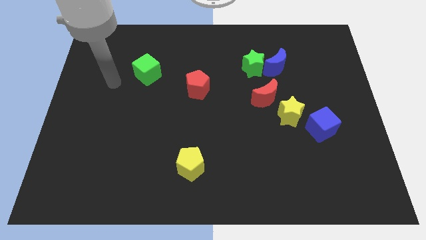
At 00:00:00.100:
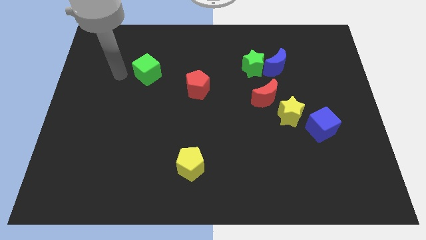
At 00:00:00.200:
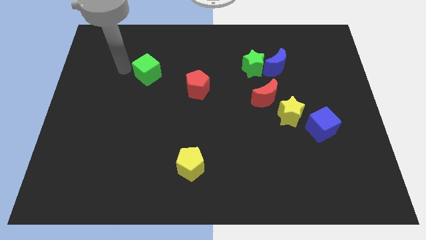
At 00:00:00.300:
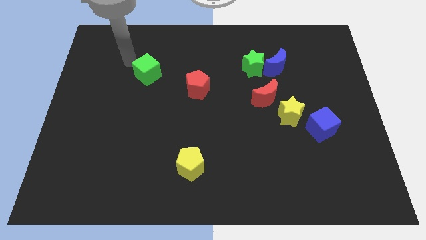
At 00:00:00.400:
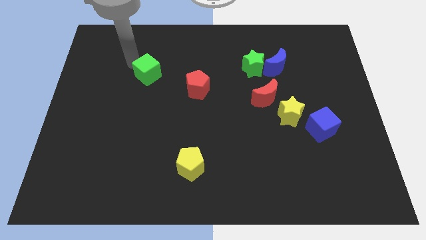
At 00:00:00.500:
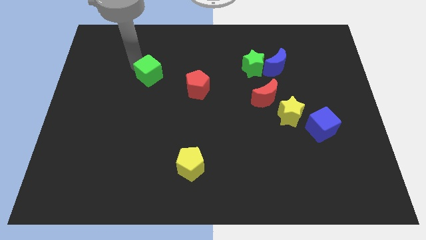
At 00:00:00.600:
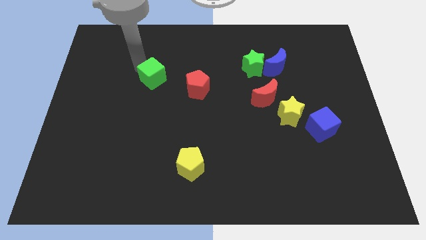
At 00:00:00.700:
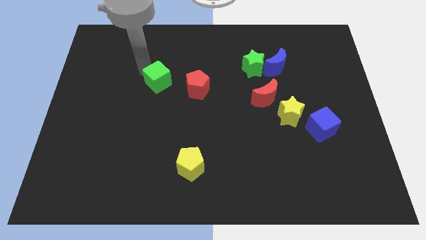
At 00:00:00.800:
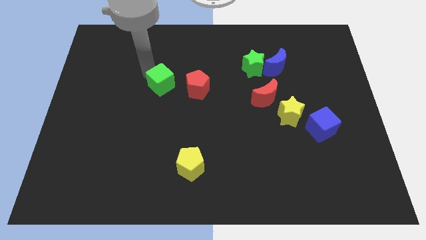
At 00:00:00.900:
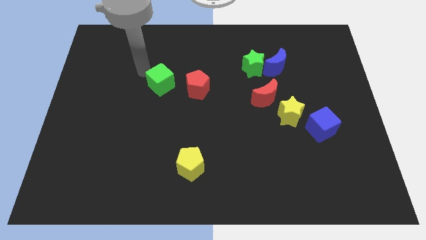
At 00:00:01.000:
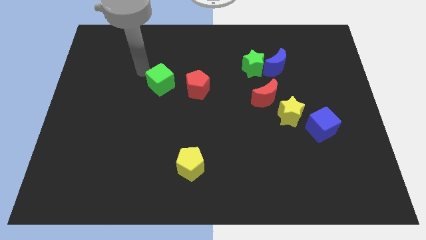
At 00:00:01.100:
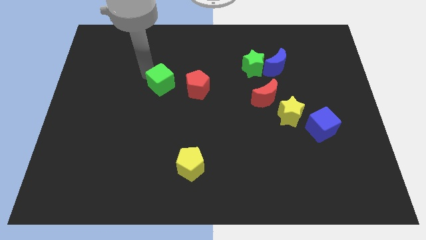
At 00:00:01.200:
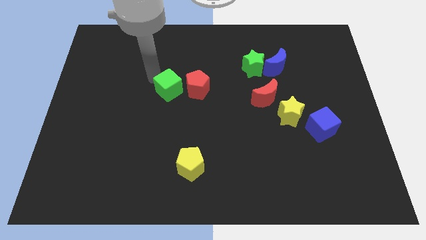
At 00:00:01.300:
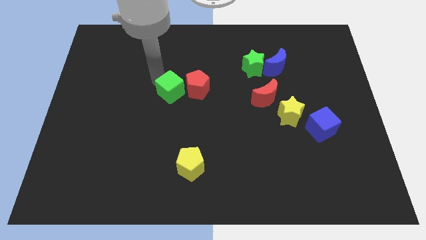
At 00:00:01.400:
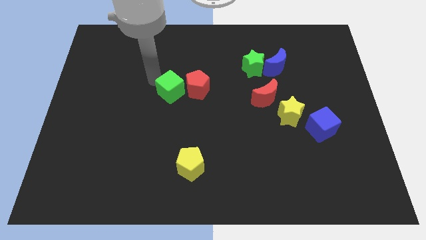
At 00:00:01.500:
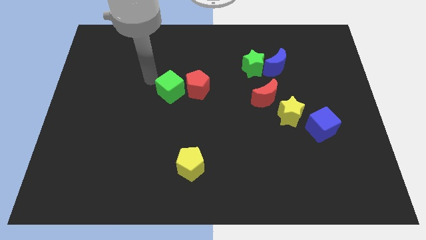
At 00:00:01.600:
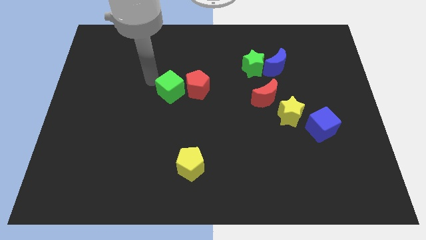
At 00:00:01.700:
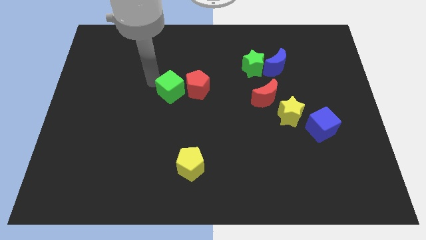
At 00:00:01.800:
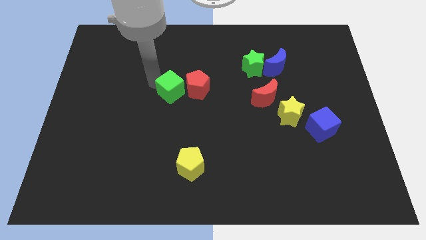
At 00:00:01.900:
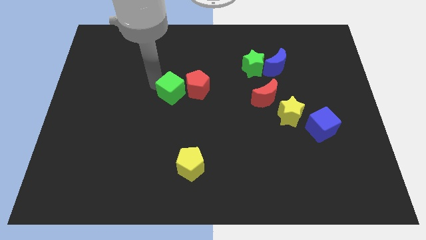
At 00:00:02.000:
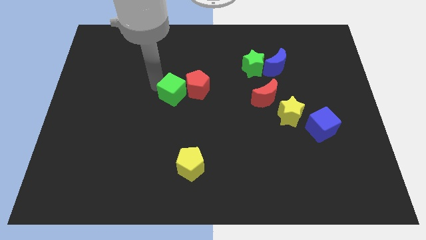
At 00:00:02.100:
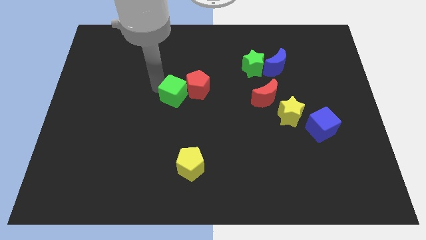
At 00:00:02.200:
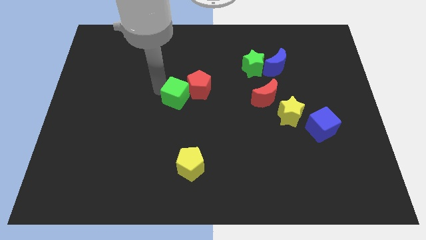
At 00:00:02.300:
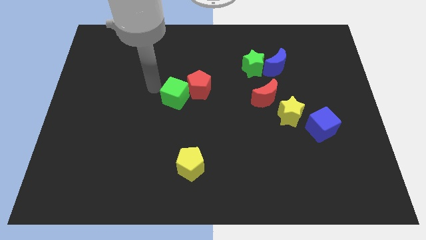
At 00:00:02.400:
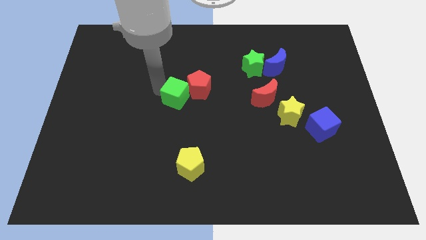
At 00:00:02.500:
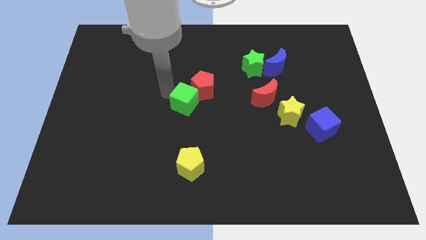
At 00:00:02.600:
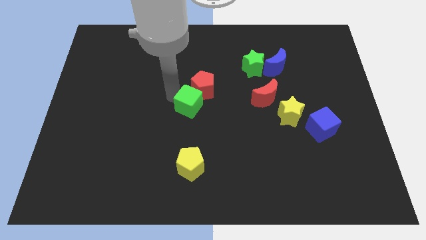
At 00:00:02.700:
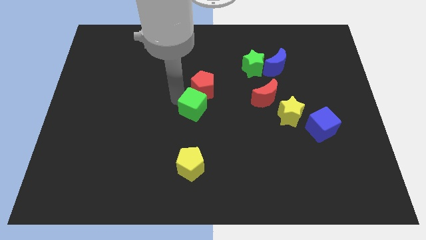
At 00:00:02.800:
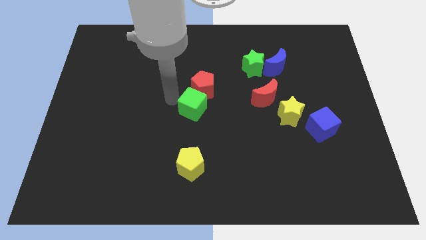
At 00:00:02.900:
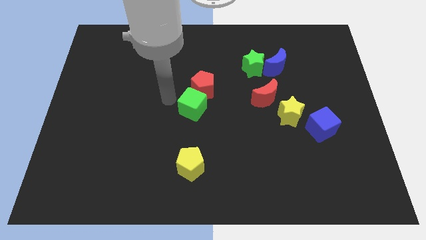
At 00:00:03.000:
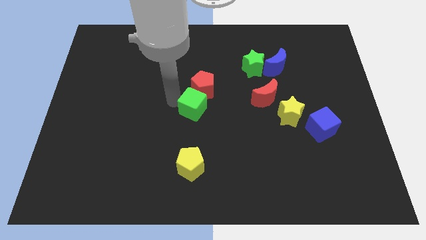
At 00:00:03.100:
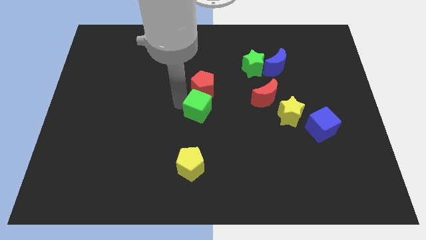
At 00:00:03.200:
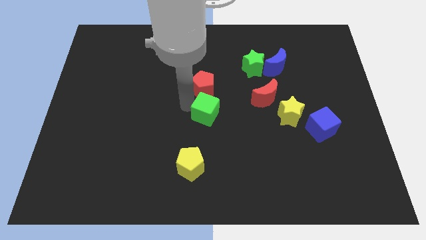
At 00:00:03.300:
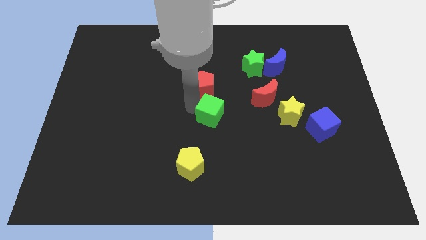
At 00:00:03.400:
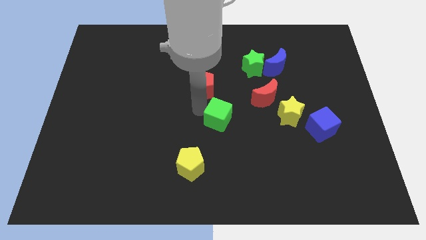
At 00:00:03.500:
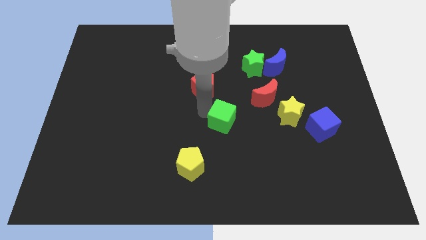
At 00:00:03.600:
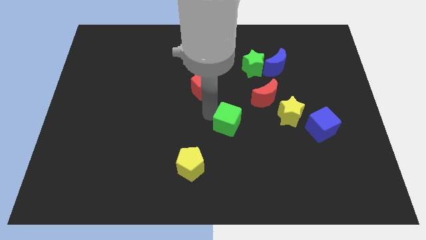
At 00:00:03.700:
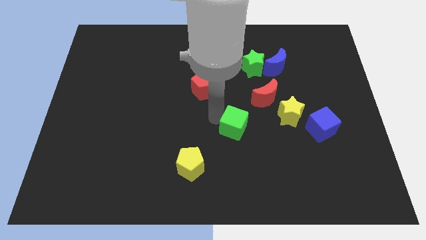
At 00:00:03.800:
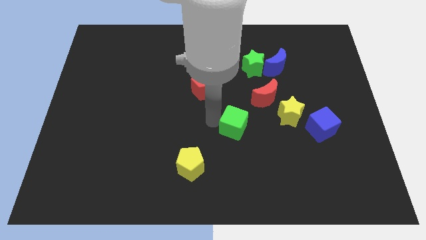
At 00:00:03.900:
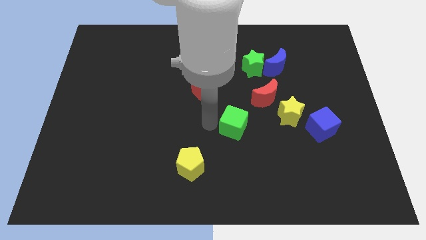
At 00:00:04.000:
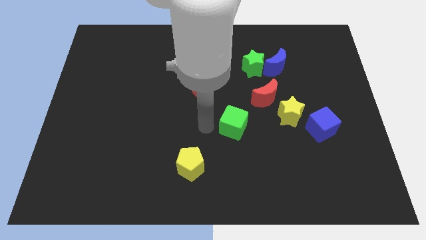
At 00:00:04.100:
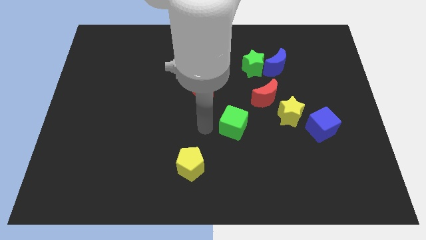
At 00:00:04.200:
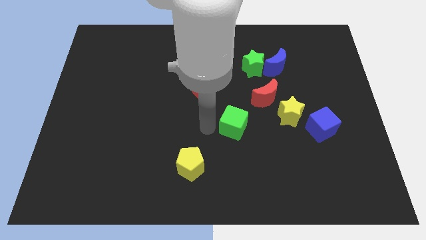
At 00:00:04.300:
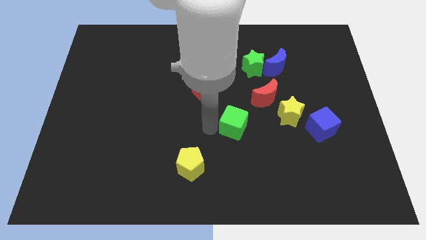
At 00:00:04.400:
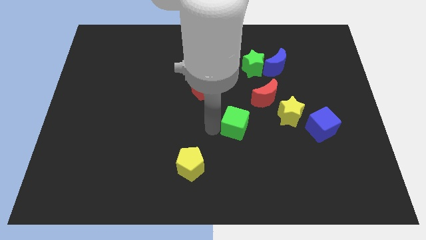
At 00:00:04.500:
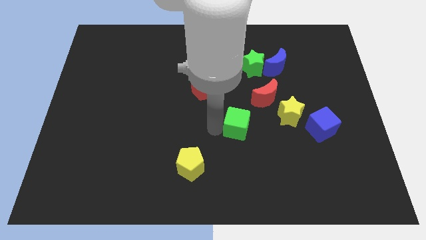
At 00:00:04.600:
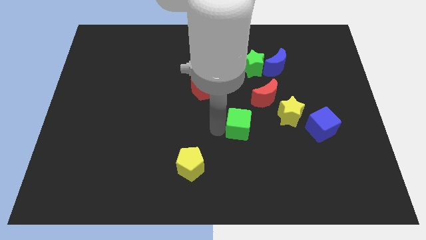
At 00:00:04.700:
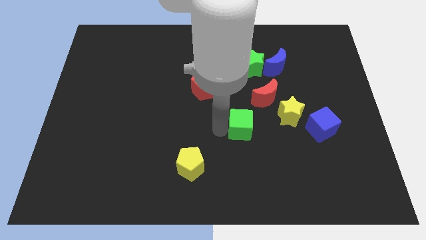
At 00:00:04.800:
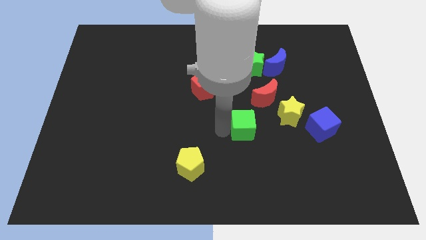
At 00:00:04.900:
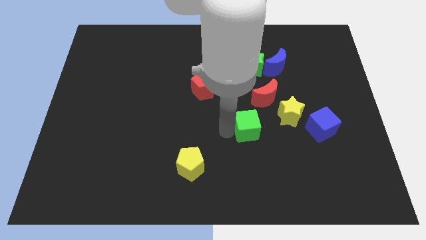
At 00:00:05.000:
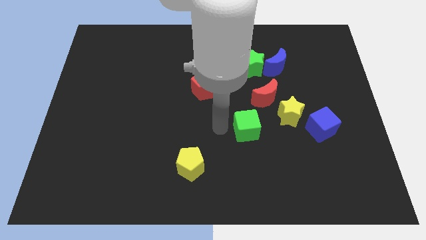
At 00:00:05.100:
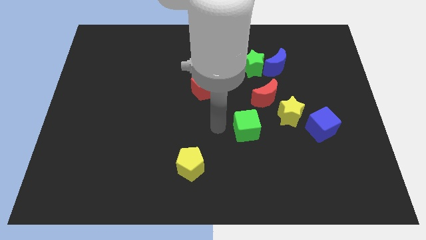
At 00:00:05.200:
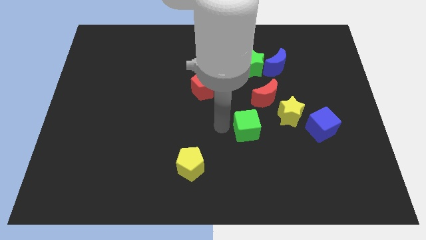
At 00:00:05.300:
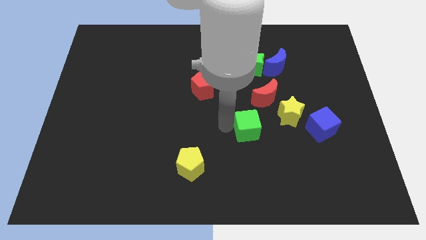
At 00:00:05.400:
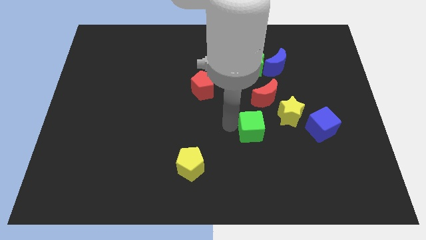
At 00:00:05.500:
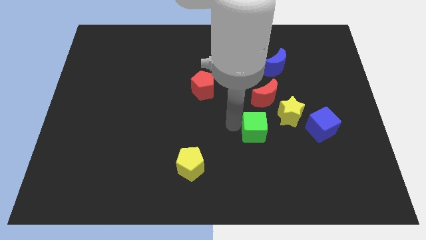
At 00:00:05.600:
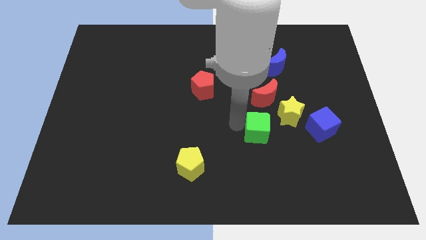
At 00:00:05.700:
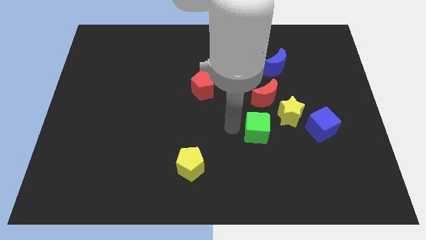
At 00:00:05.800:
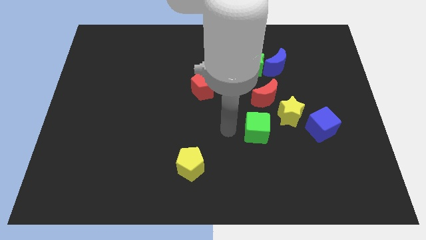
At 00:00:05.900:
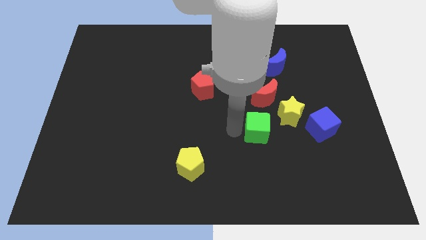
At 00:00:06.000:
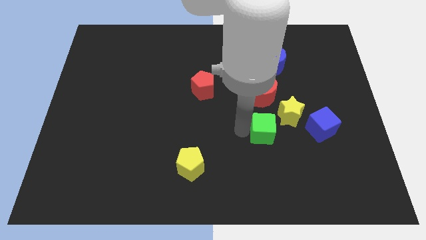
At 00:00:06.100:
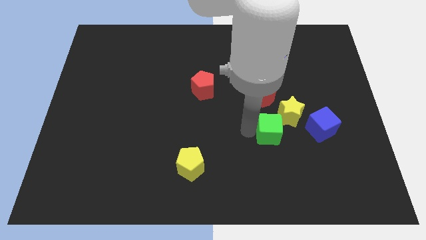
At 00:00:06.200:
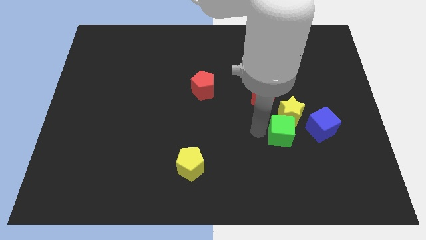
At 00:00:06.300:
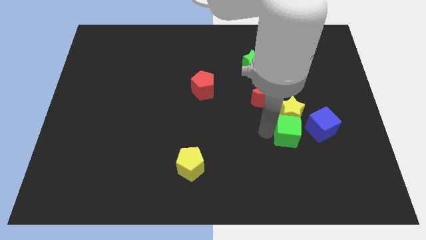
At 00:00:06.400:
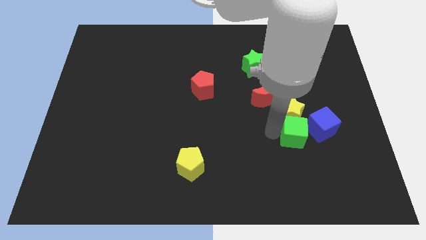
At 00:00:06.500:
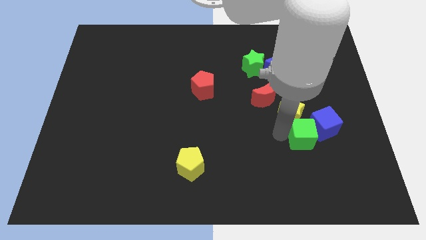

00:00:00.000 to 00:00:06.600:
push the green cube towards the blue cube

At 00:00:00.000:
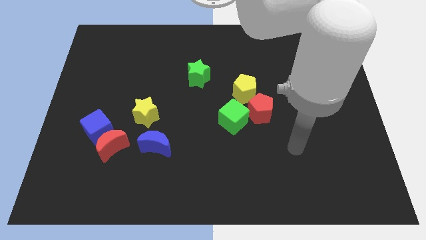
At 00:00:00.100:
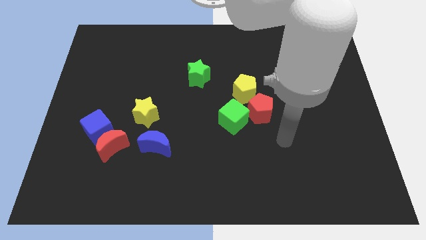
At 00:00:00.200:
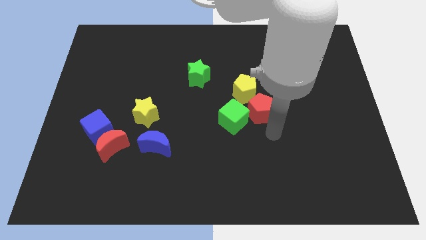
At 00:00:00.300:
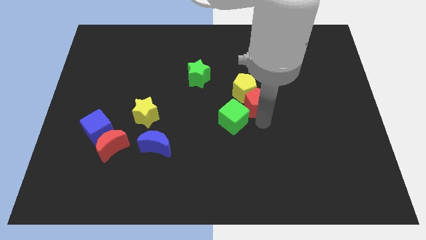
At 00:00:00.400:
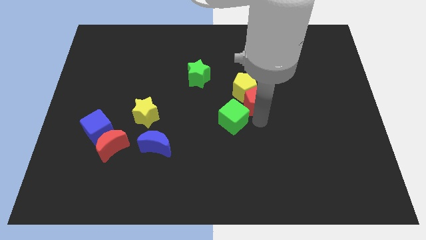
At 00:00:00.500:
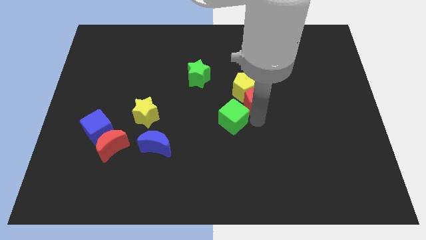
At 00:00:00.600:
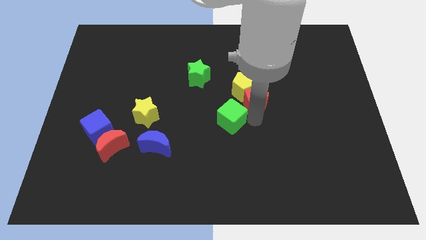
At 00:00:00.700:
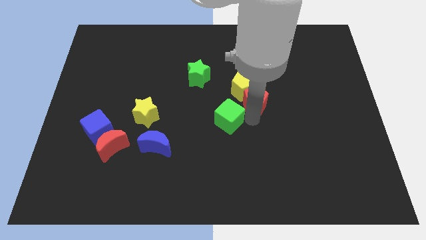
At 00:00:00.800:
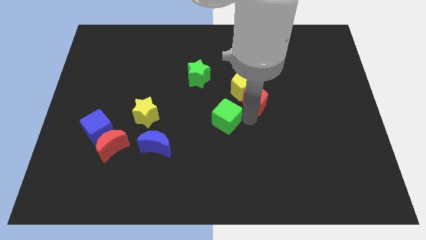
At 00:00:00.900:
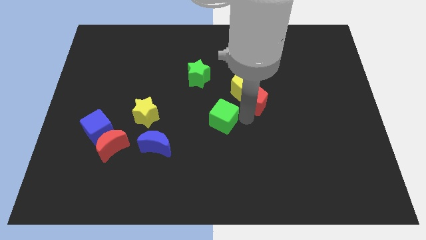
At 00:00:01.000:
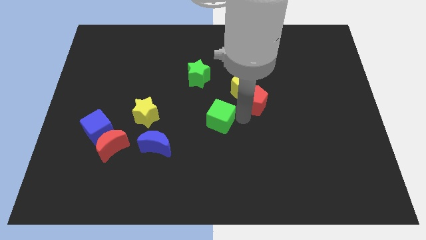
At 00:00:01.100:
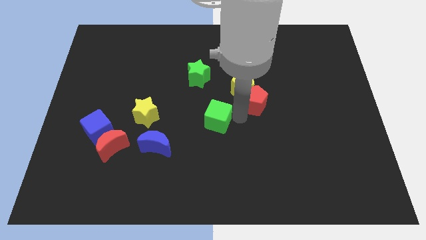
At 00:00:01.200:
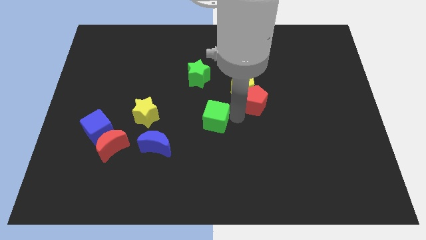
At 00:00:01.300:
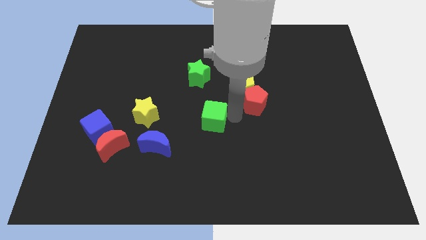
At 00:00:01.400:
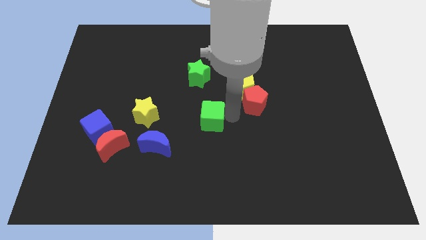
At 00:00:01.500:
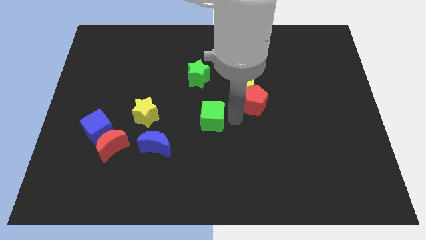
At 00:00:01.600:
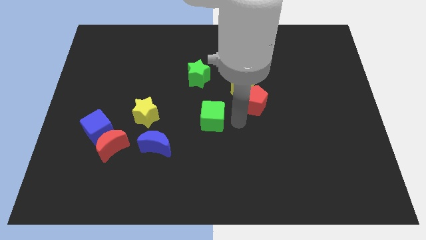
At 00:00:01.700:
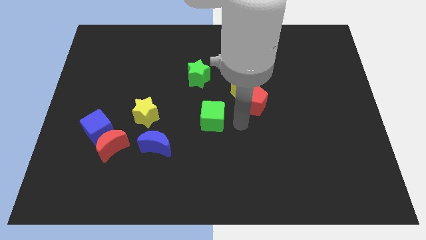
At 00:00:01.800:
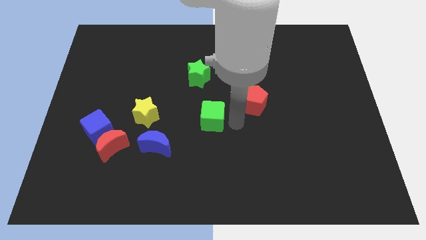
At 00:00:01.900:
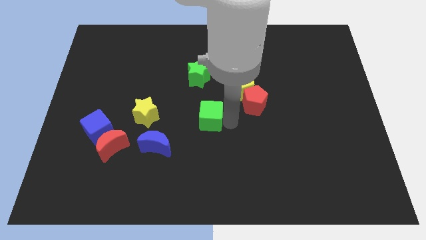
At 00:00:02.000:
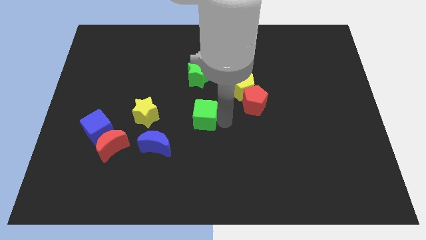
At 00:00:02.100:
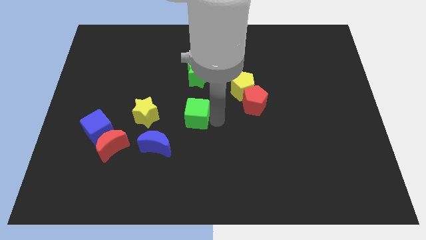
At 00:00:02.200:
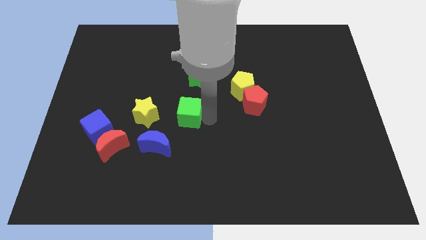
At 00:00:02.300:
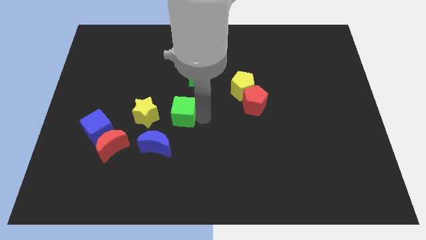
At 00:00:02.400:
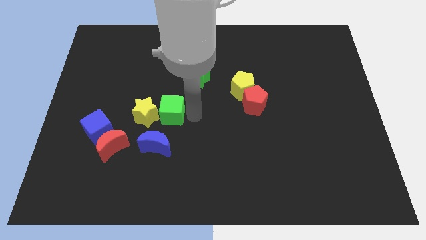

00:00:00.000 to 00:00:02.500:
put the green cube towards the yellow star
